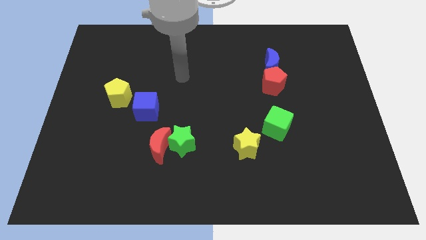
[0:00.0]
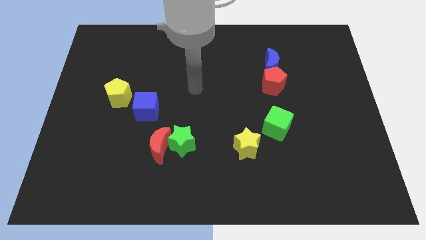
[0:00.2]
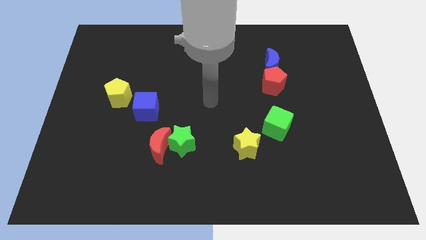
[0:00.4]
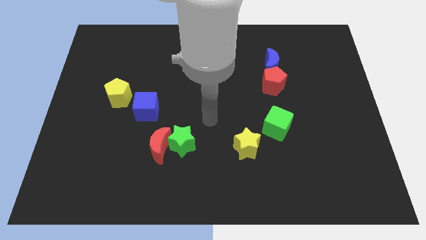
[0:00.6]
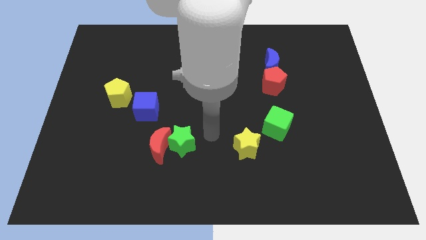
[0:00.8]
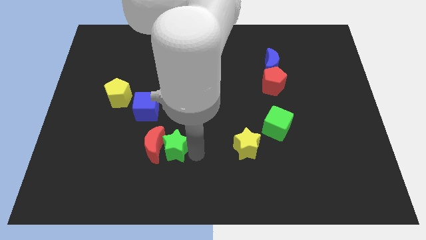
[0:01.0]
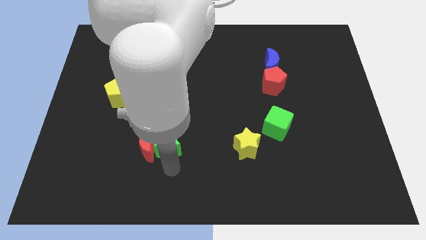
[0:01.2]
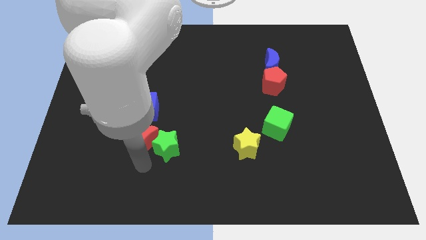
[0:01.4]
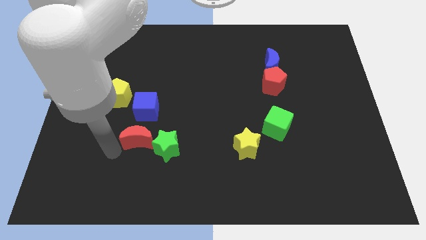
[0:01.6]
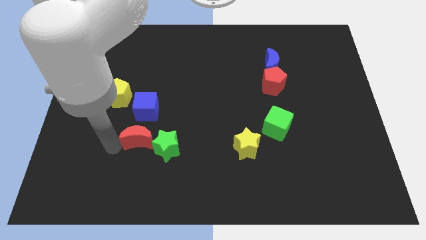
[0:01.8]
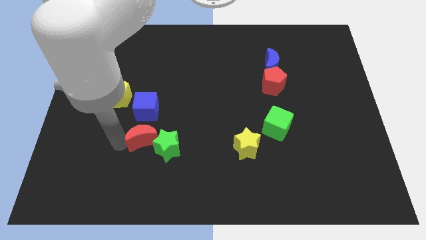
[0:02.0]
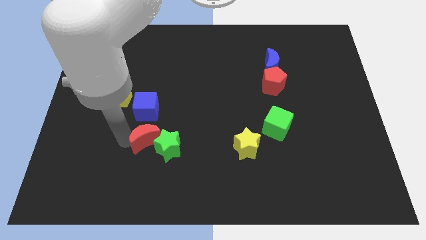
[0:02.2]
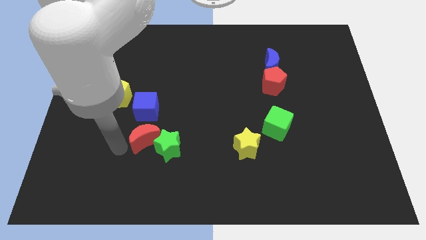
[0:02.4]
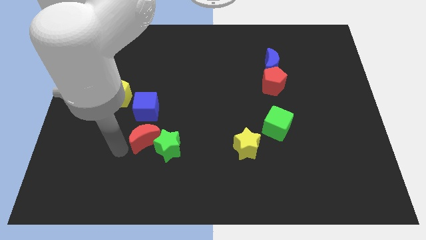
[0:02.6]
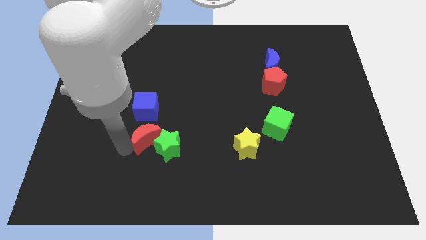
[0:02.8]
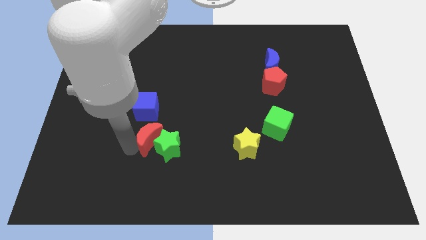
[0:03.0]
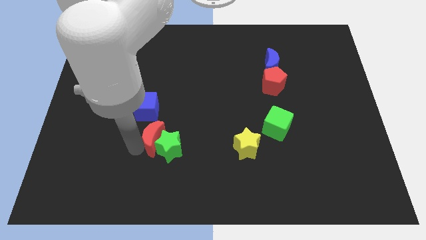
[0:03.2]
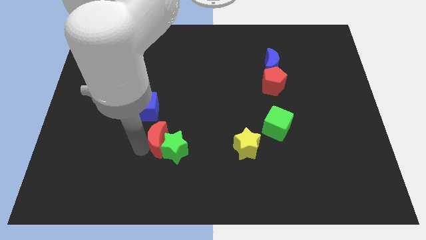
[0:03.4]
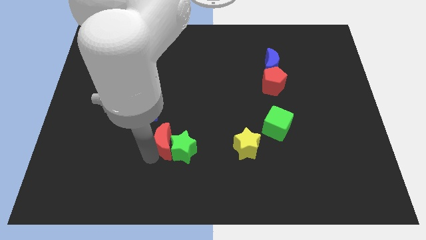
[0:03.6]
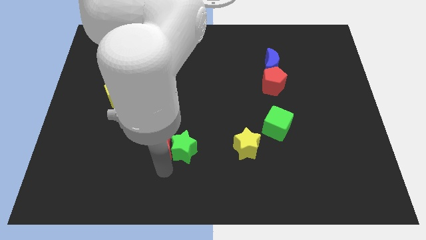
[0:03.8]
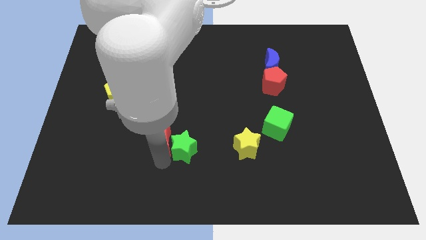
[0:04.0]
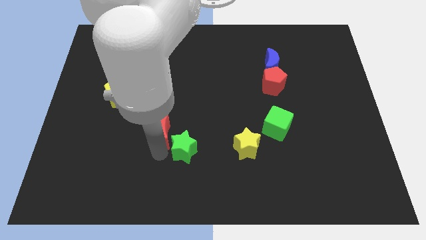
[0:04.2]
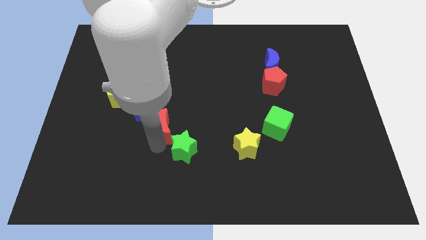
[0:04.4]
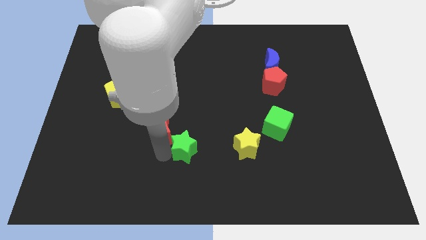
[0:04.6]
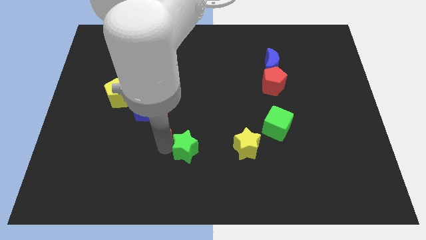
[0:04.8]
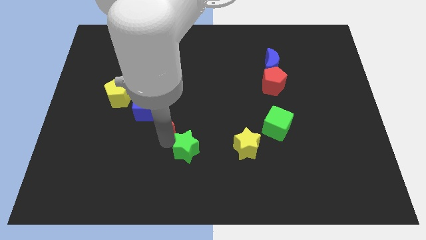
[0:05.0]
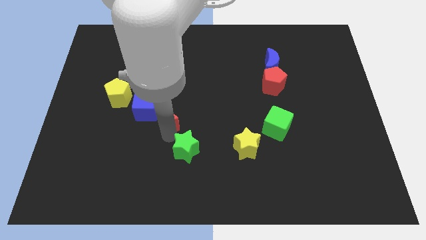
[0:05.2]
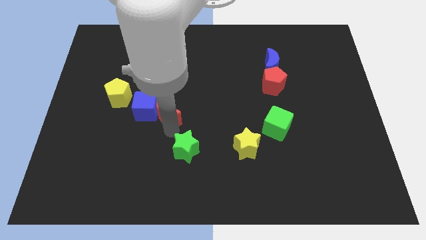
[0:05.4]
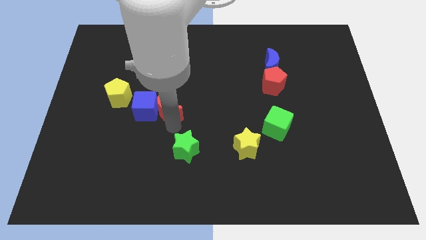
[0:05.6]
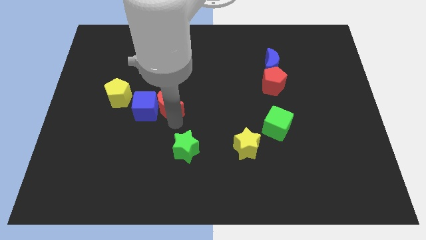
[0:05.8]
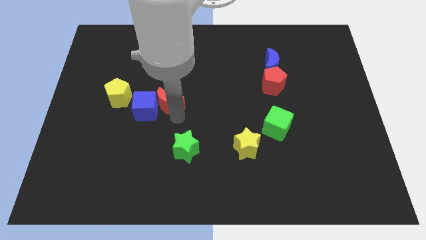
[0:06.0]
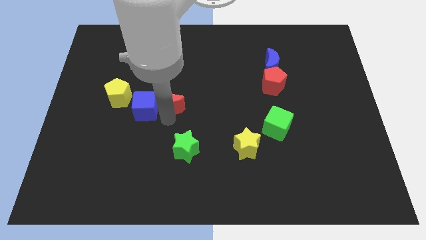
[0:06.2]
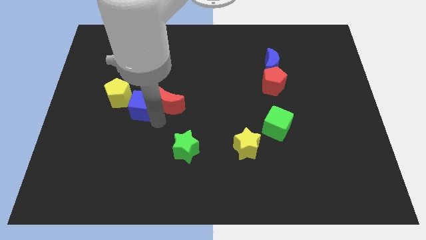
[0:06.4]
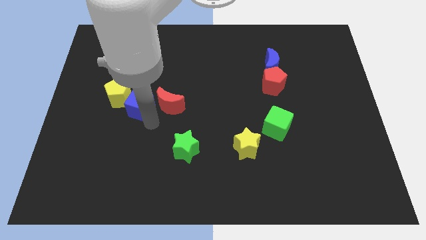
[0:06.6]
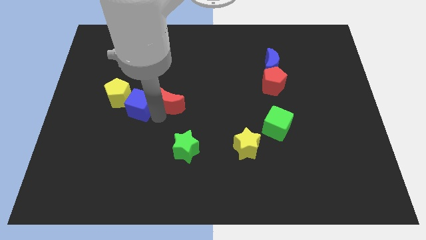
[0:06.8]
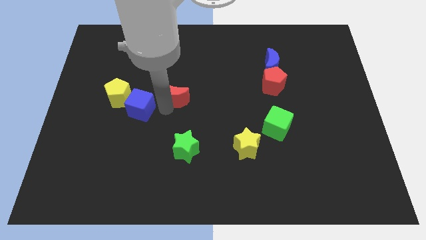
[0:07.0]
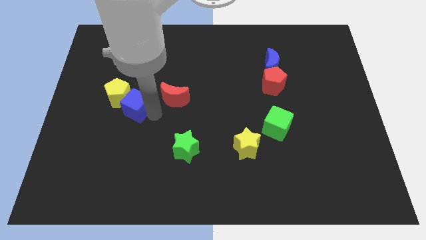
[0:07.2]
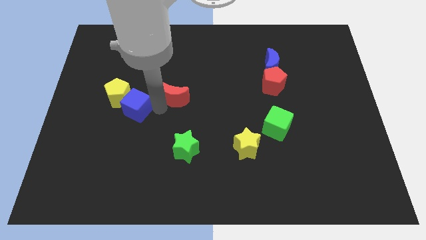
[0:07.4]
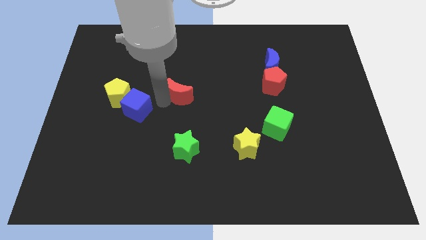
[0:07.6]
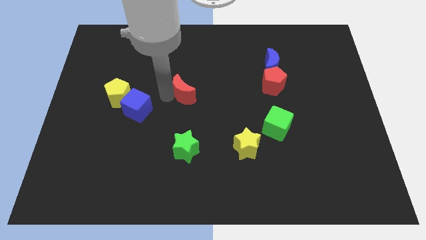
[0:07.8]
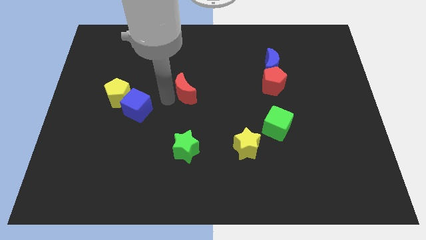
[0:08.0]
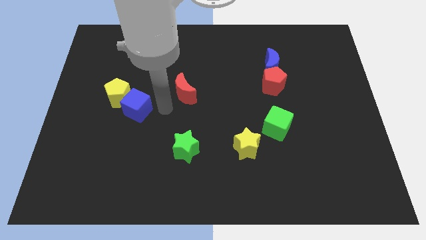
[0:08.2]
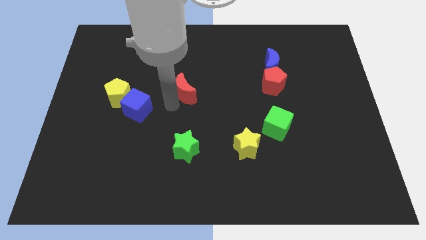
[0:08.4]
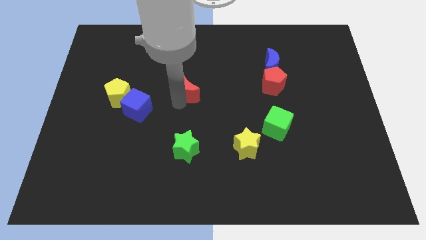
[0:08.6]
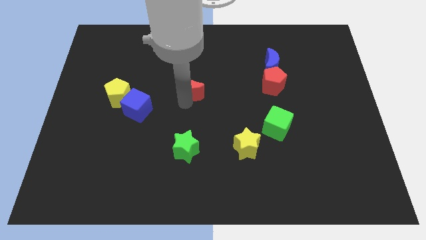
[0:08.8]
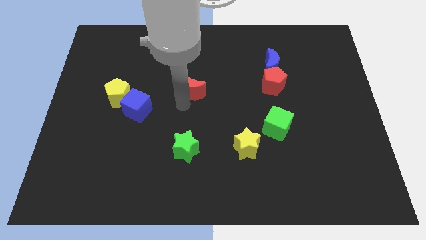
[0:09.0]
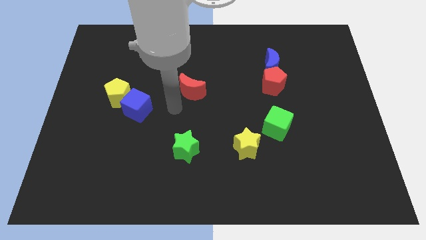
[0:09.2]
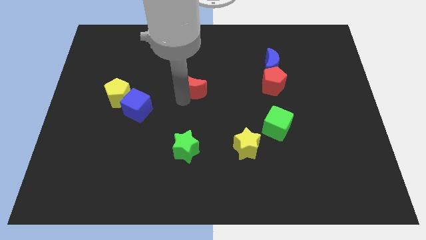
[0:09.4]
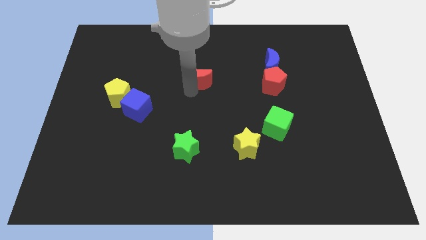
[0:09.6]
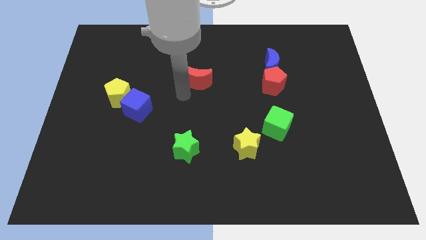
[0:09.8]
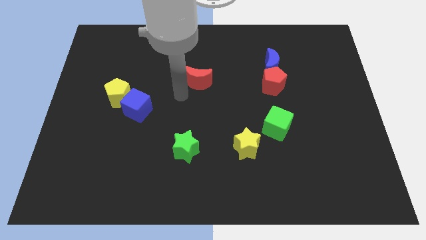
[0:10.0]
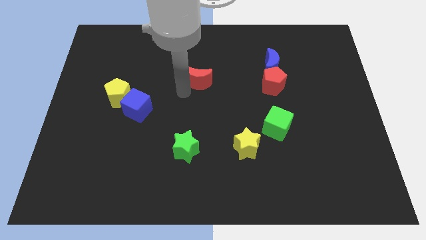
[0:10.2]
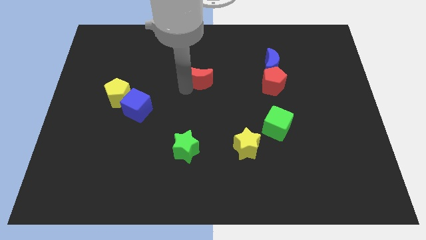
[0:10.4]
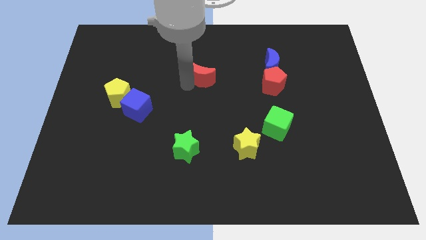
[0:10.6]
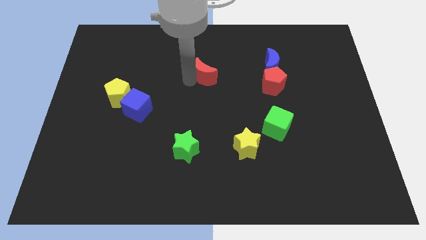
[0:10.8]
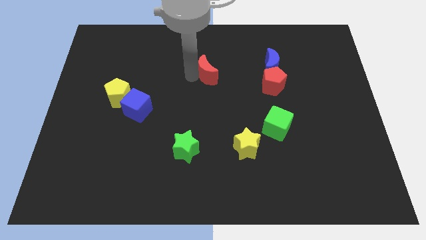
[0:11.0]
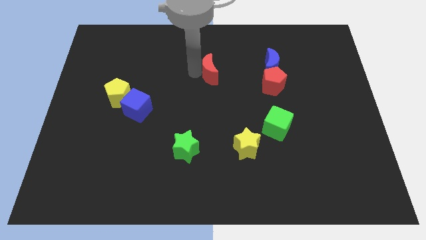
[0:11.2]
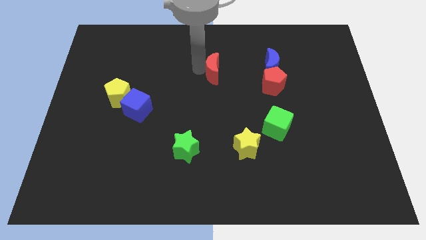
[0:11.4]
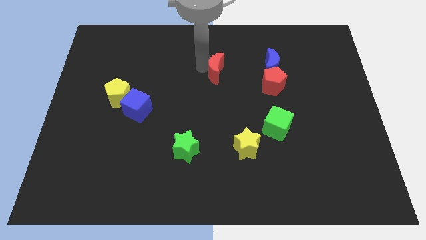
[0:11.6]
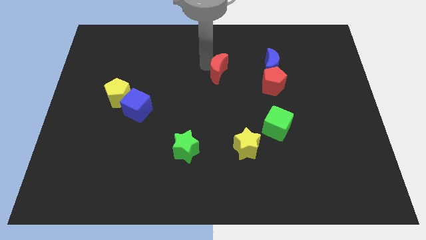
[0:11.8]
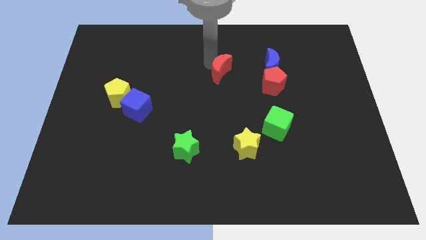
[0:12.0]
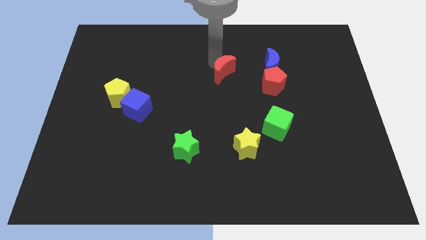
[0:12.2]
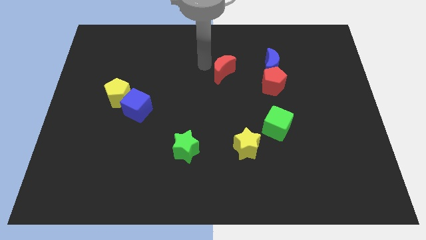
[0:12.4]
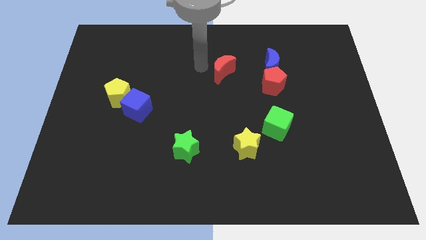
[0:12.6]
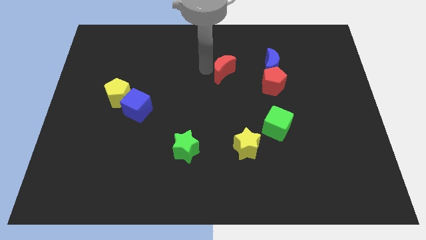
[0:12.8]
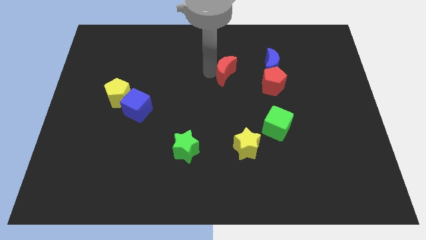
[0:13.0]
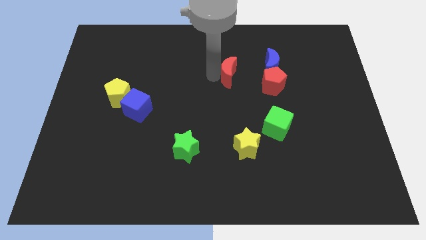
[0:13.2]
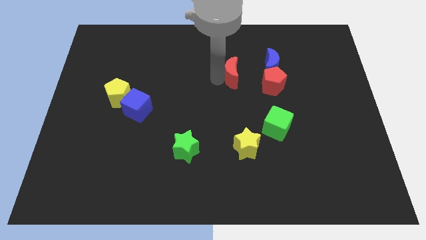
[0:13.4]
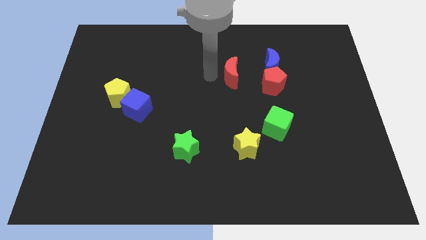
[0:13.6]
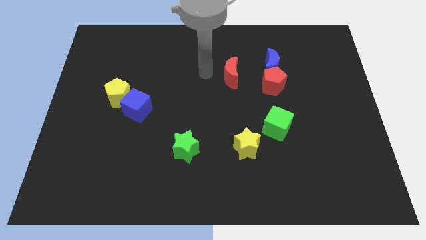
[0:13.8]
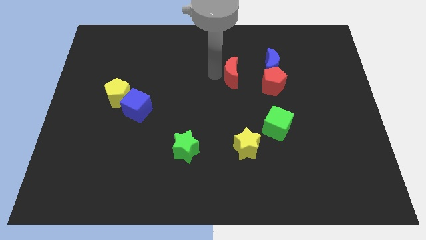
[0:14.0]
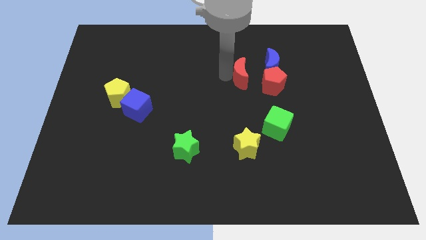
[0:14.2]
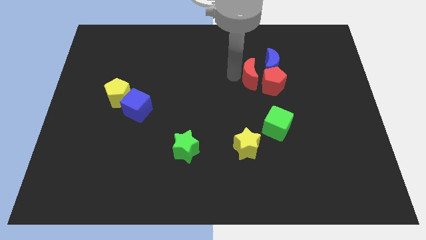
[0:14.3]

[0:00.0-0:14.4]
slide the red moon to the red pentagon

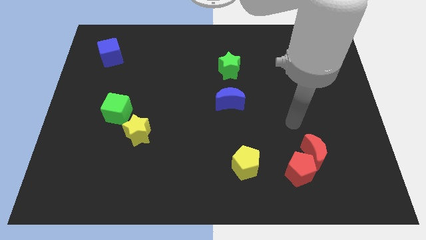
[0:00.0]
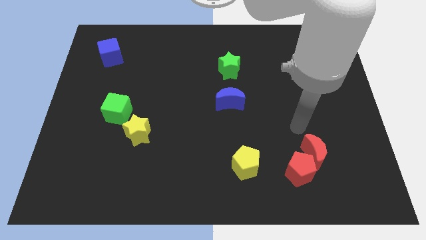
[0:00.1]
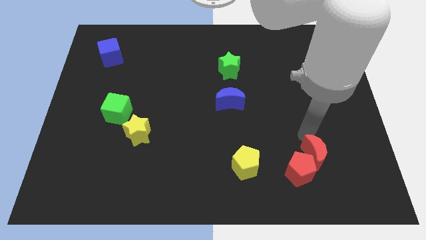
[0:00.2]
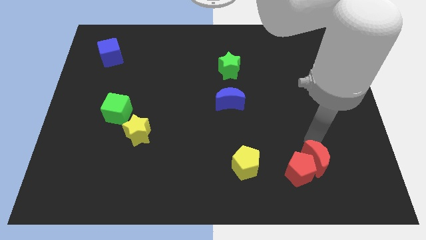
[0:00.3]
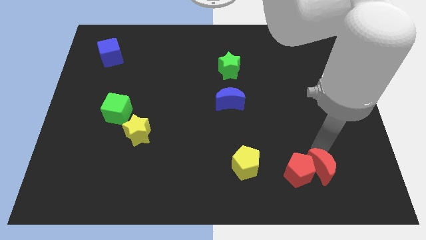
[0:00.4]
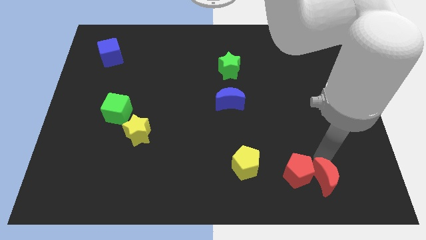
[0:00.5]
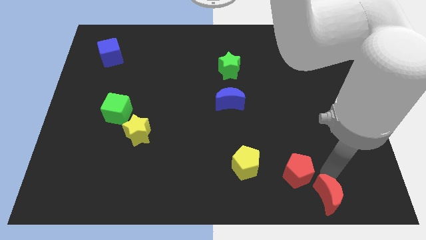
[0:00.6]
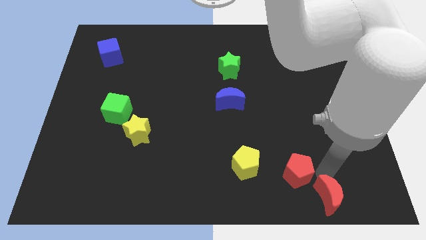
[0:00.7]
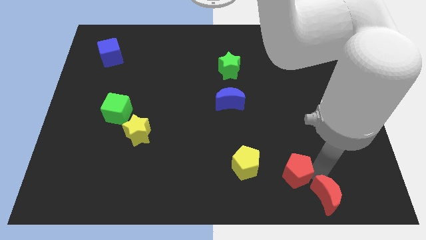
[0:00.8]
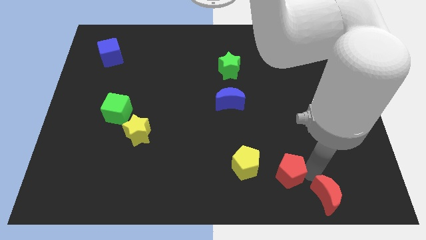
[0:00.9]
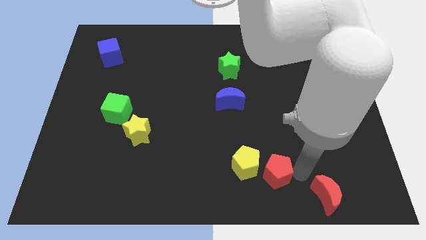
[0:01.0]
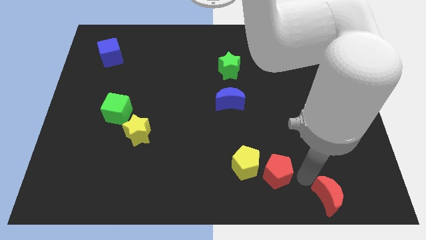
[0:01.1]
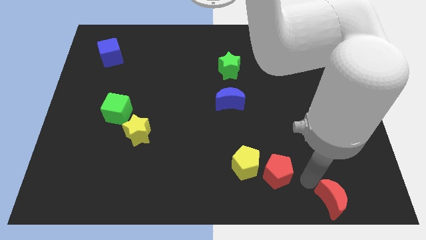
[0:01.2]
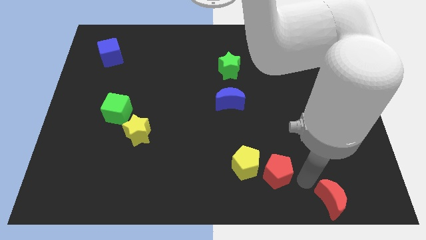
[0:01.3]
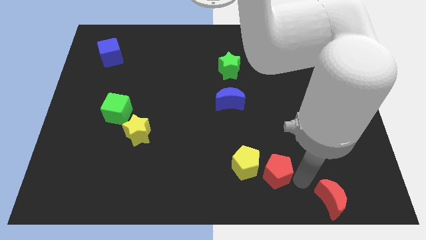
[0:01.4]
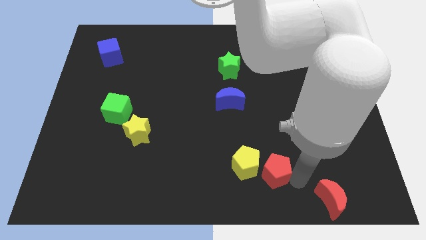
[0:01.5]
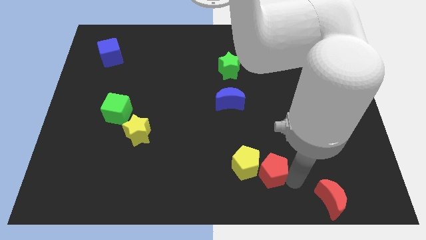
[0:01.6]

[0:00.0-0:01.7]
move the red pentagon close to the yellow pentagon
